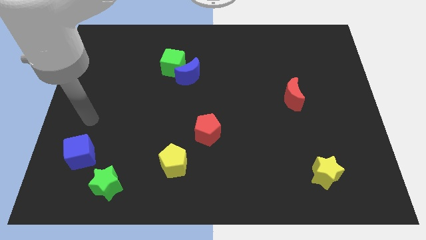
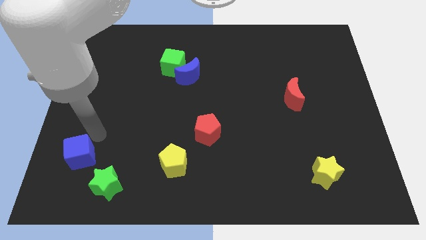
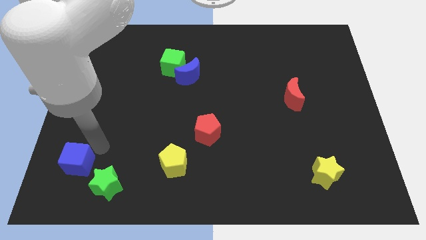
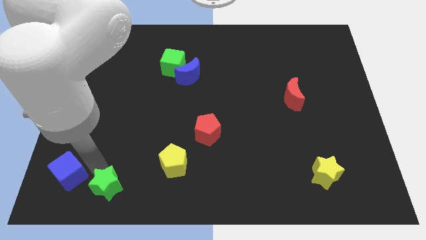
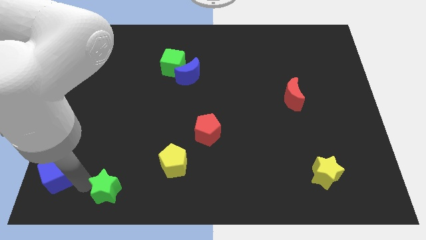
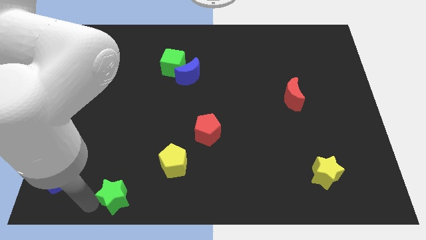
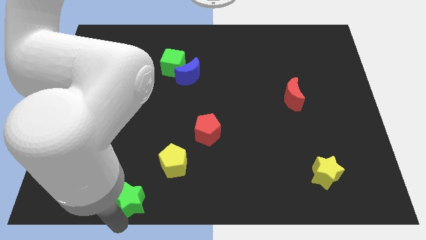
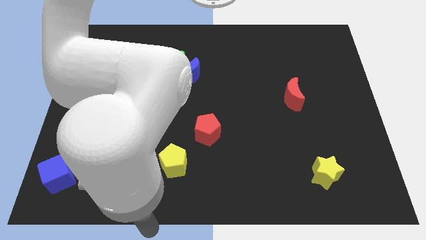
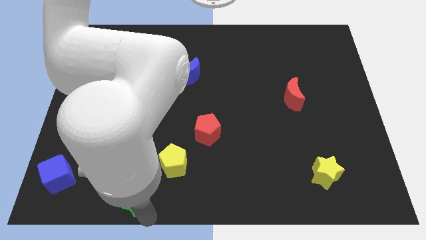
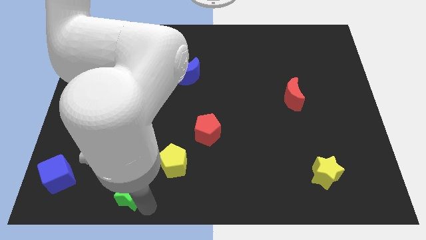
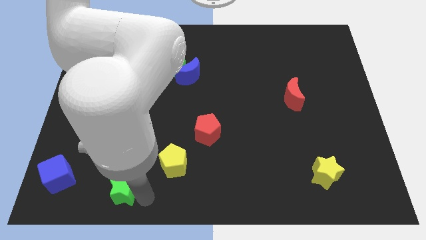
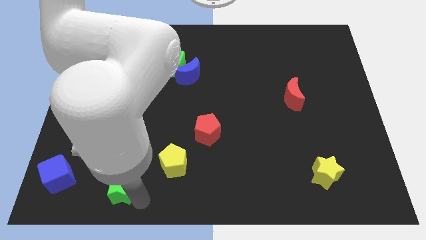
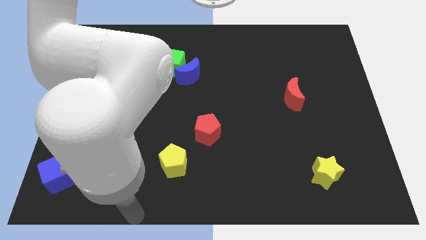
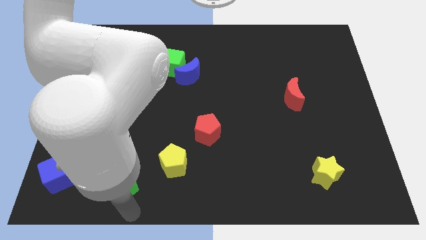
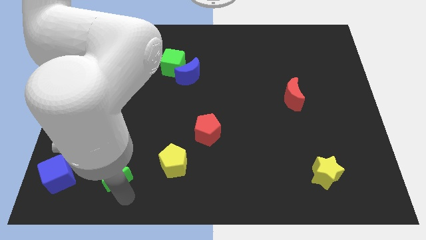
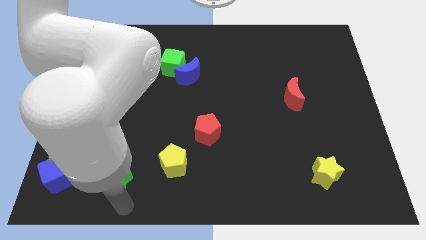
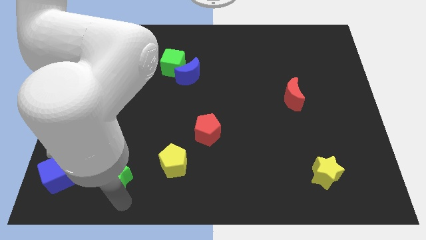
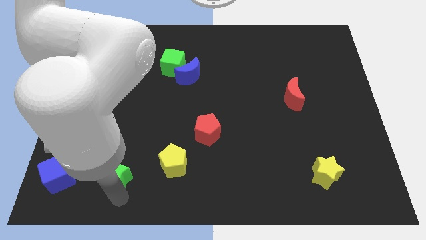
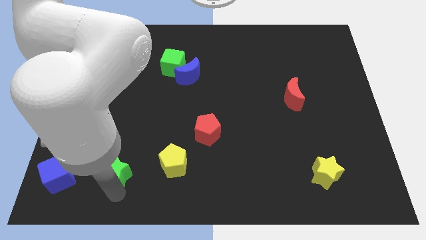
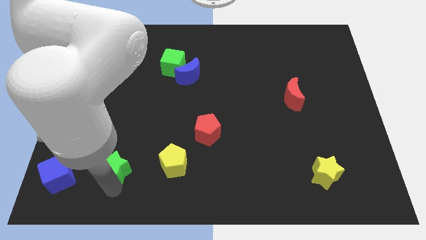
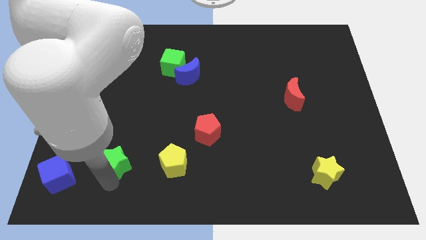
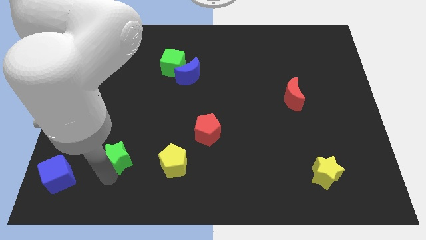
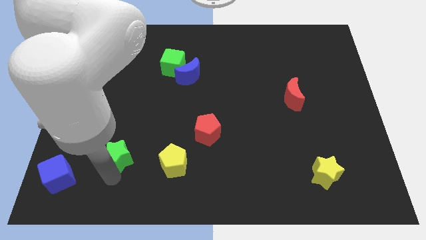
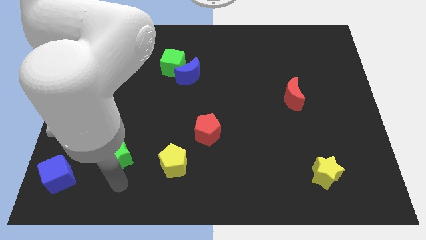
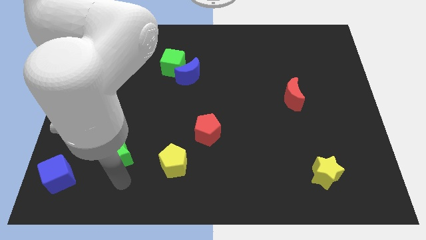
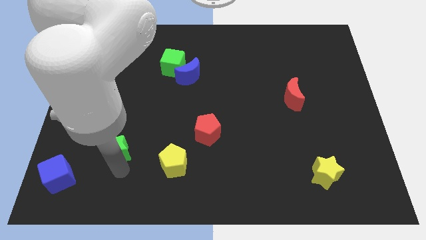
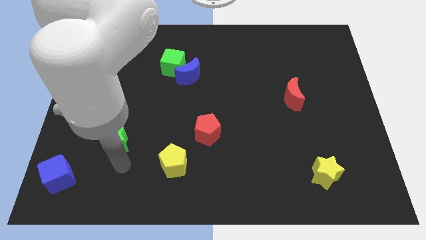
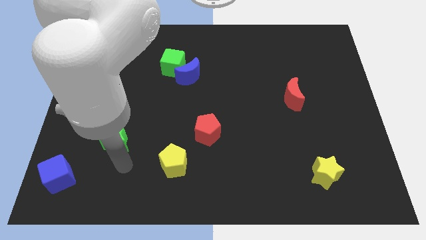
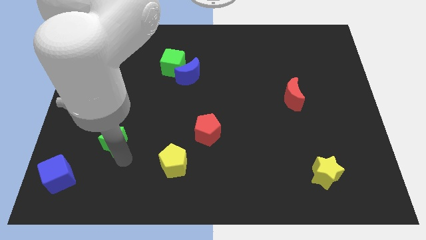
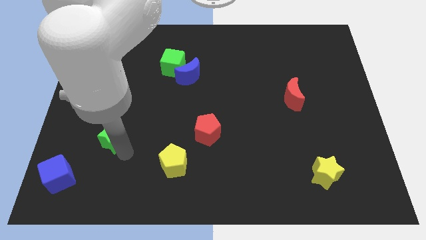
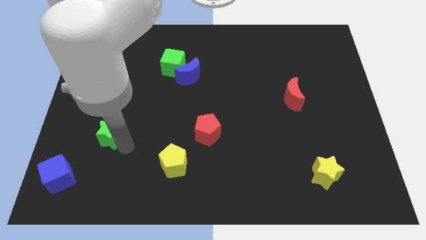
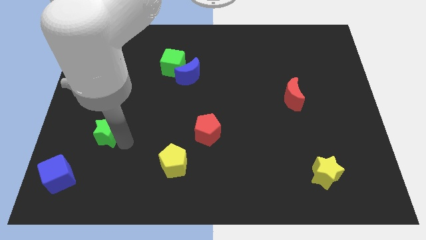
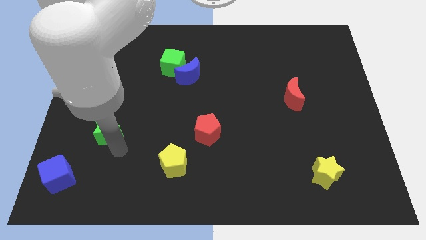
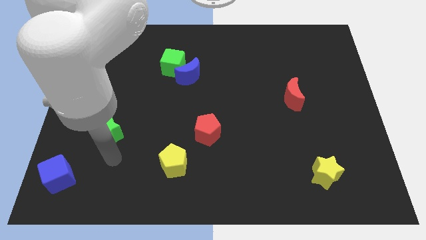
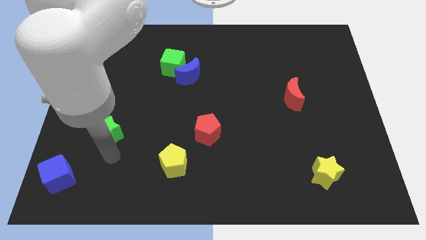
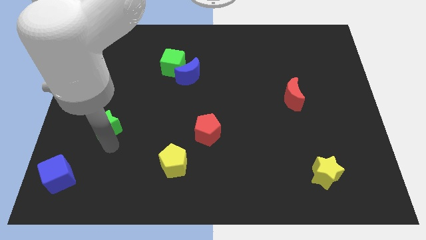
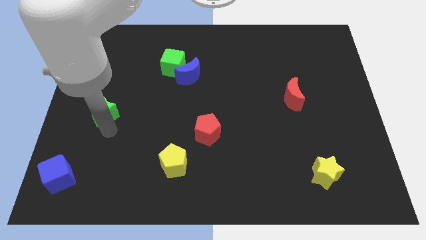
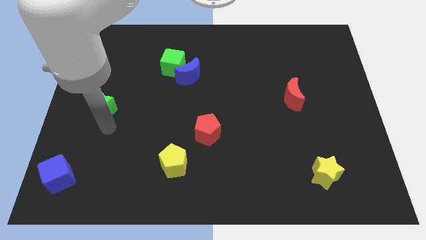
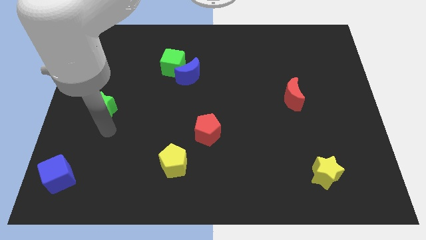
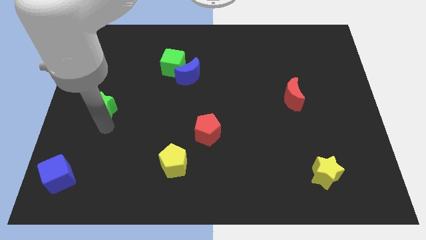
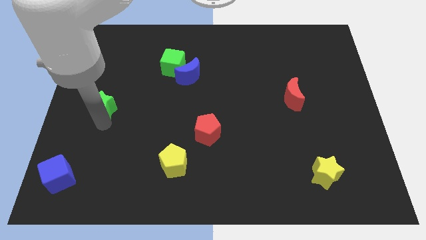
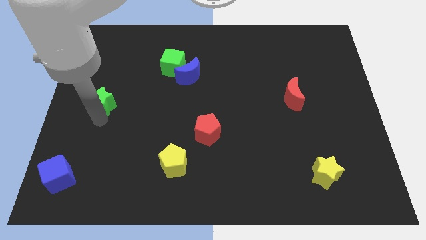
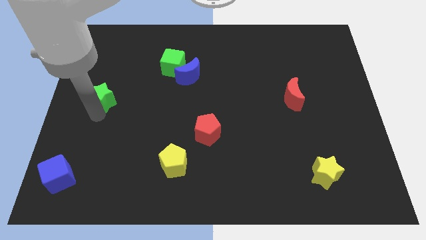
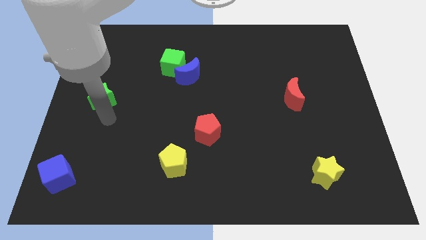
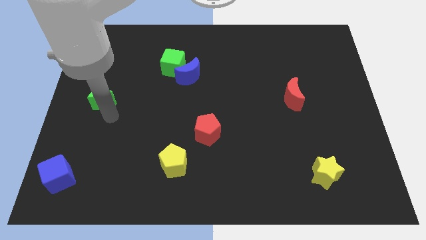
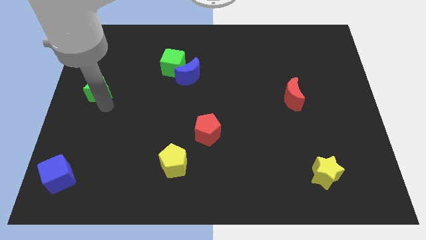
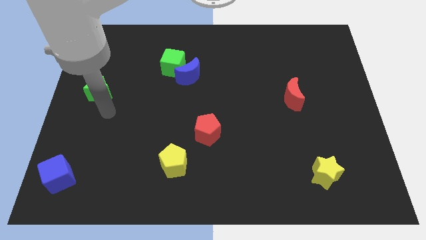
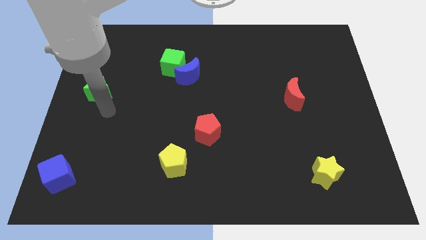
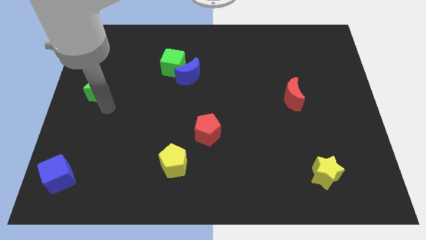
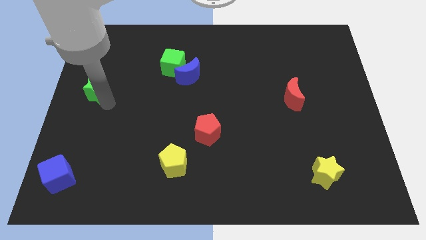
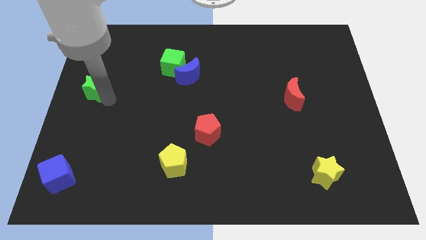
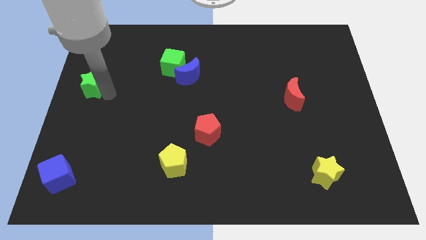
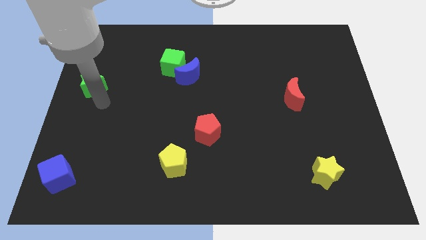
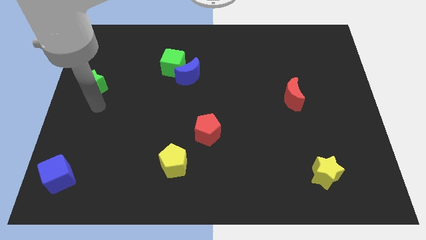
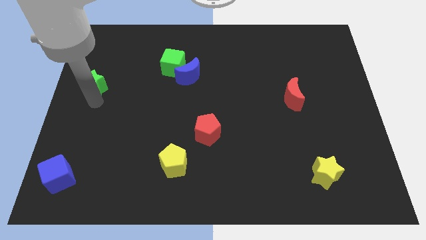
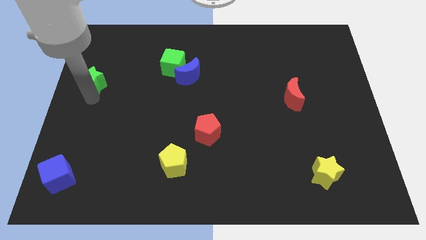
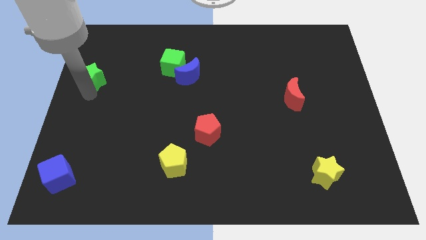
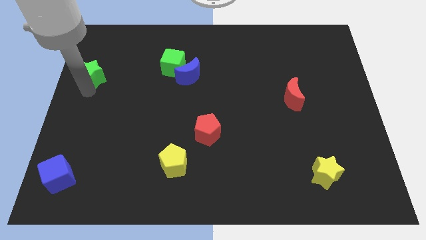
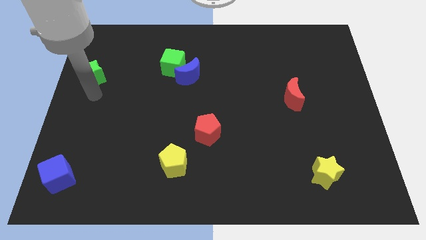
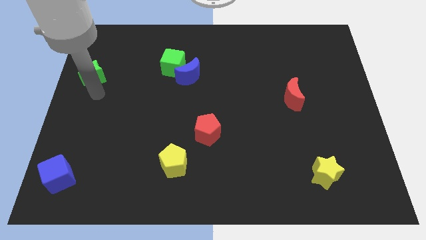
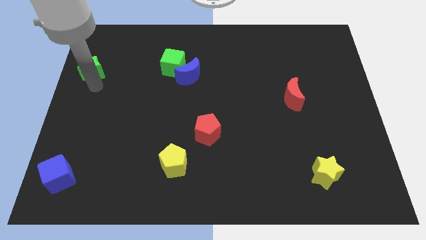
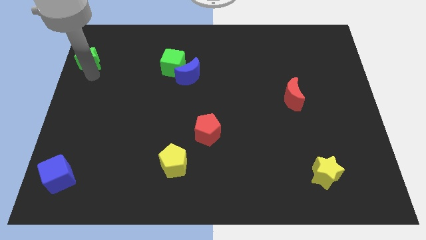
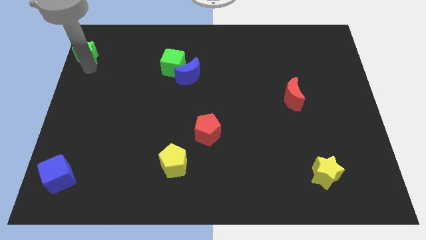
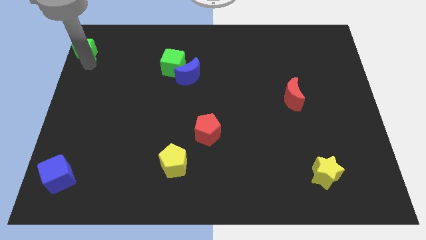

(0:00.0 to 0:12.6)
put the green star to the top left of the board
